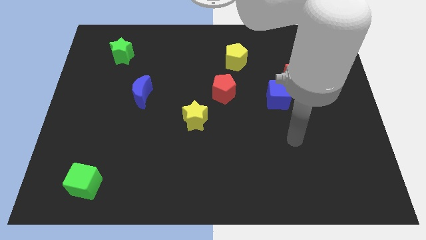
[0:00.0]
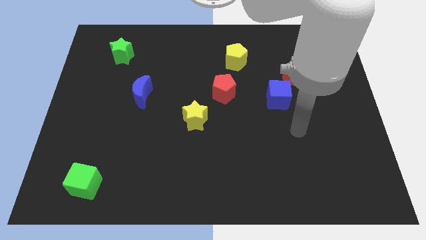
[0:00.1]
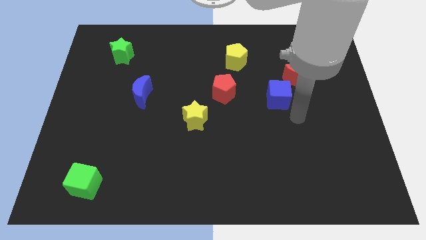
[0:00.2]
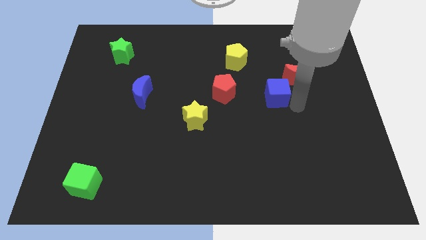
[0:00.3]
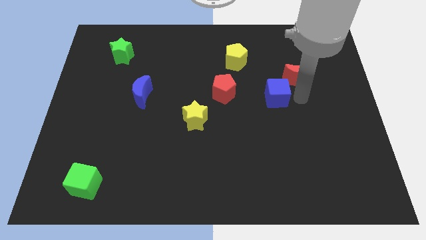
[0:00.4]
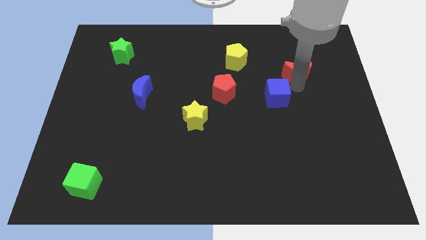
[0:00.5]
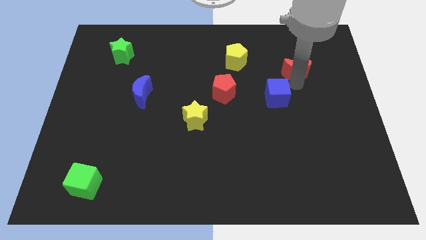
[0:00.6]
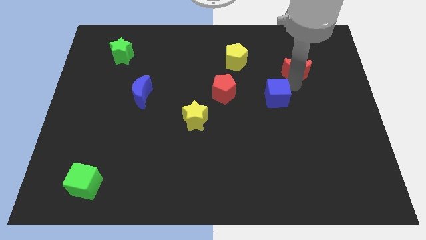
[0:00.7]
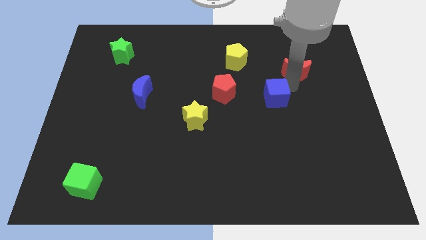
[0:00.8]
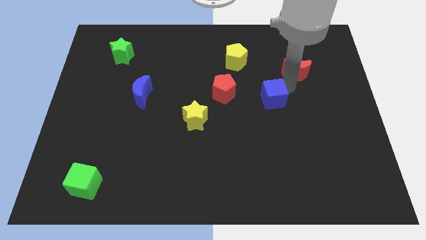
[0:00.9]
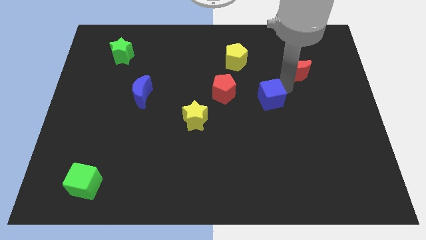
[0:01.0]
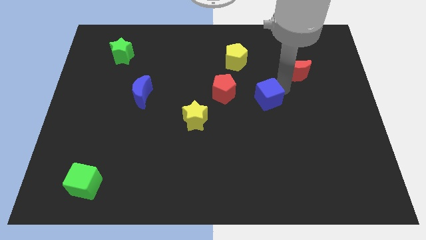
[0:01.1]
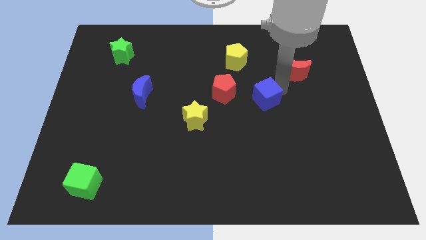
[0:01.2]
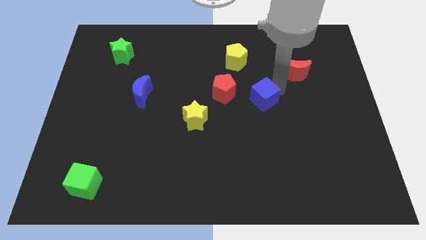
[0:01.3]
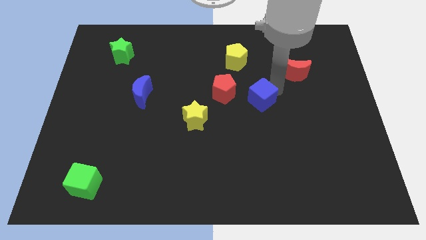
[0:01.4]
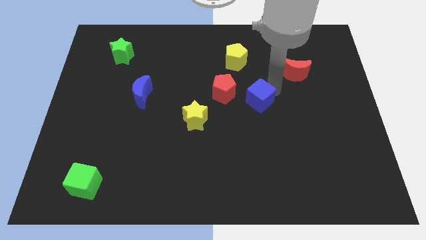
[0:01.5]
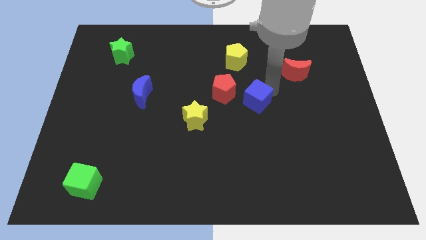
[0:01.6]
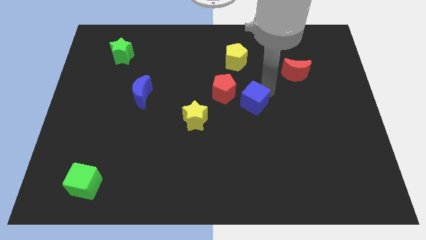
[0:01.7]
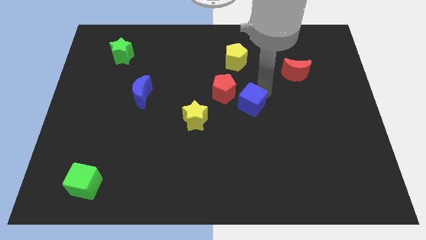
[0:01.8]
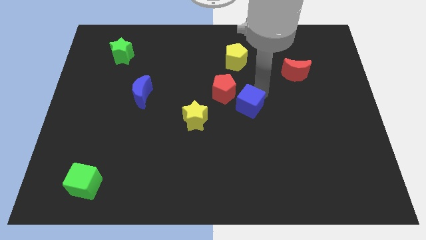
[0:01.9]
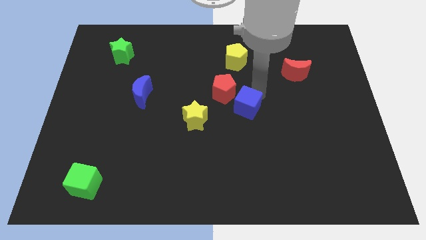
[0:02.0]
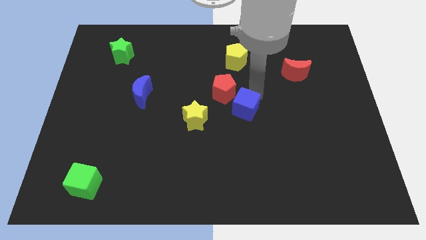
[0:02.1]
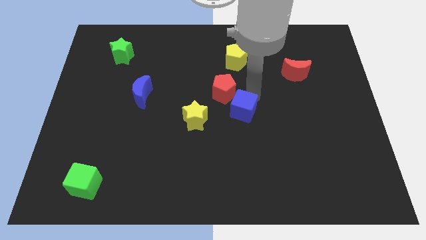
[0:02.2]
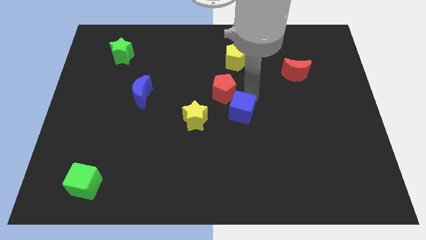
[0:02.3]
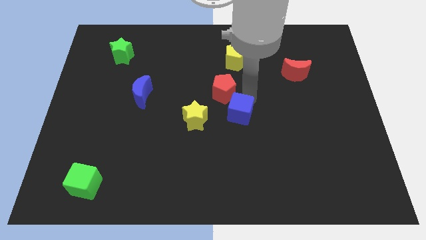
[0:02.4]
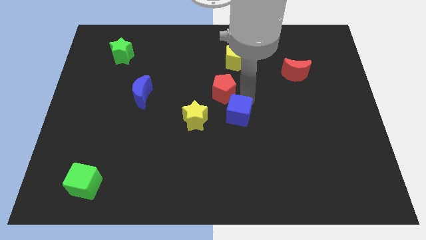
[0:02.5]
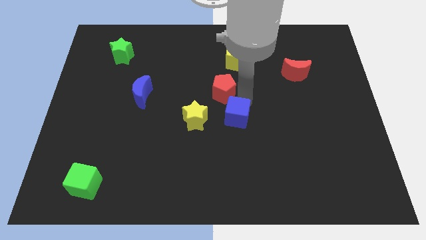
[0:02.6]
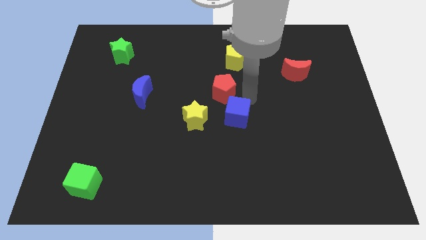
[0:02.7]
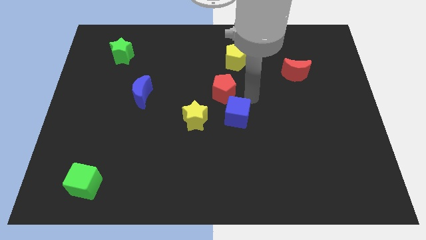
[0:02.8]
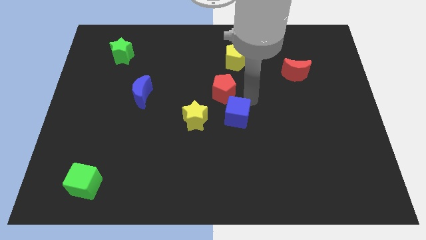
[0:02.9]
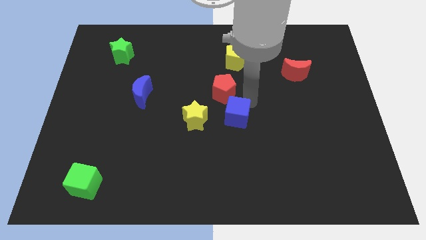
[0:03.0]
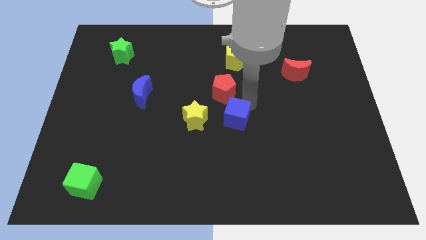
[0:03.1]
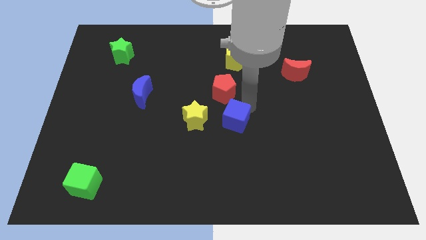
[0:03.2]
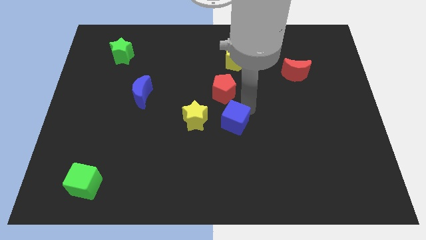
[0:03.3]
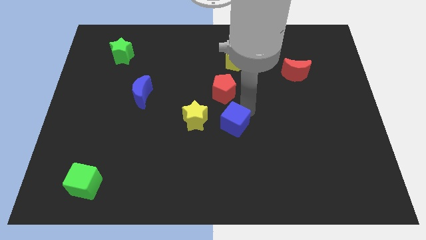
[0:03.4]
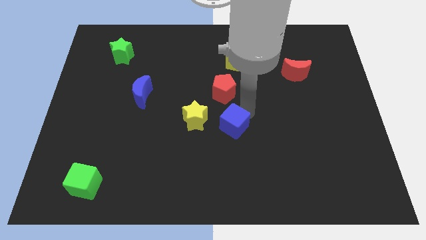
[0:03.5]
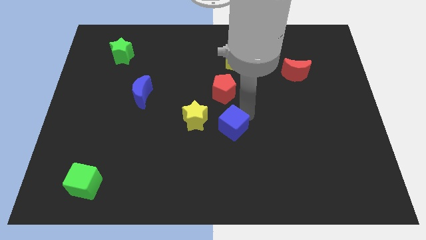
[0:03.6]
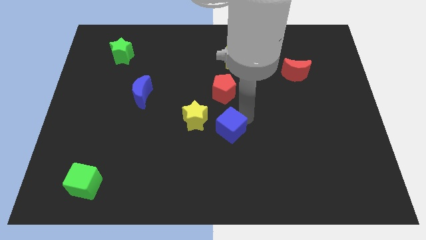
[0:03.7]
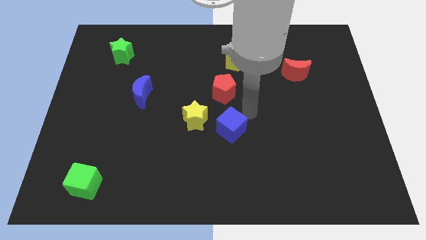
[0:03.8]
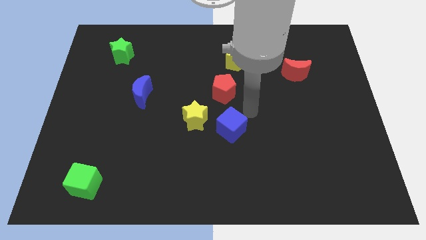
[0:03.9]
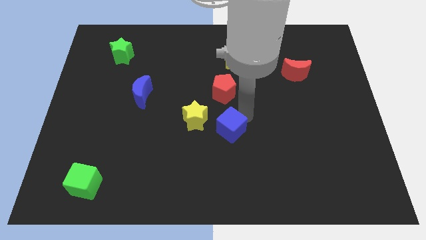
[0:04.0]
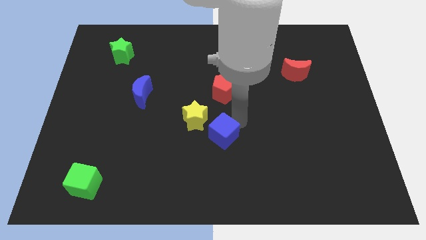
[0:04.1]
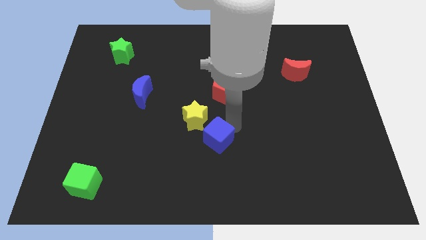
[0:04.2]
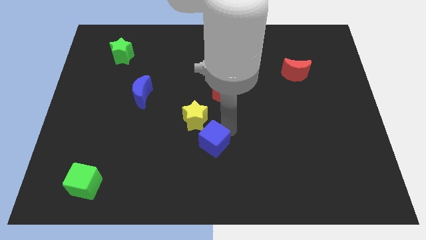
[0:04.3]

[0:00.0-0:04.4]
slide the blue cube to the bottom of the yellow star

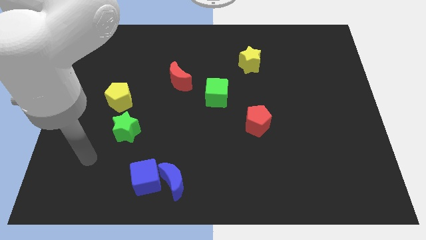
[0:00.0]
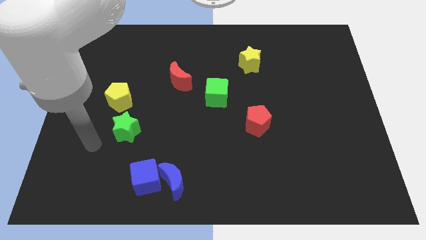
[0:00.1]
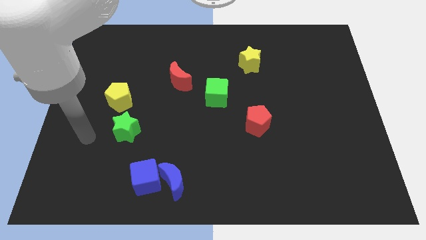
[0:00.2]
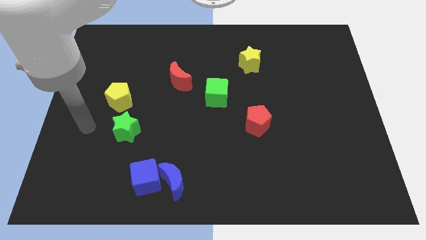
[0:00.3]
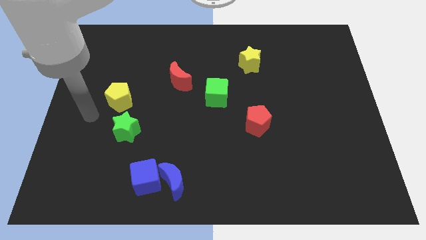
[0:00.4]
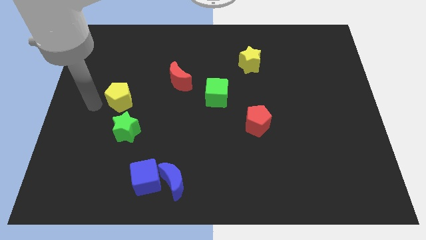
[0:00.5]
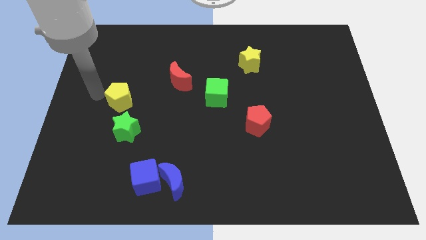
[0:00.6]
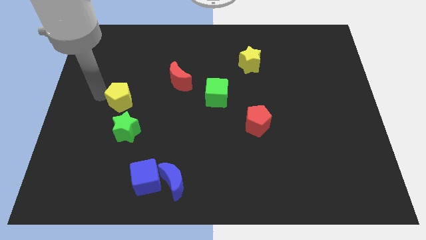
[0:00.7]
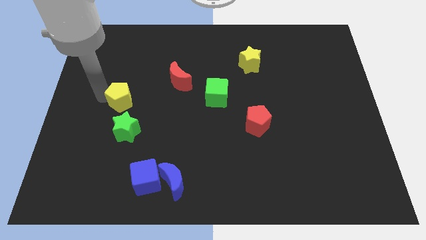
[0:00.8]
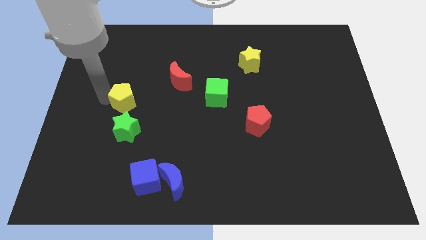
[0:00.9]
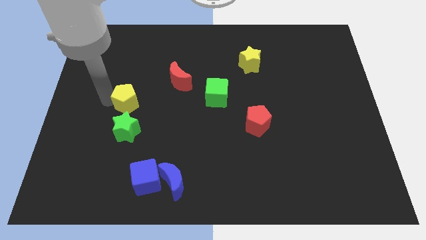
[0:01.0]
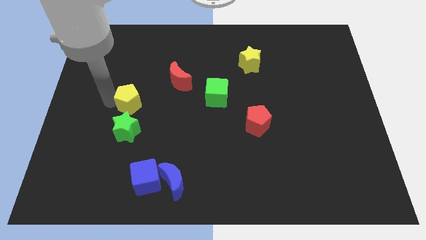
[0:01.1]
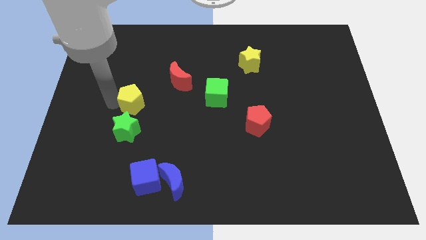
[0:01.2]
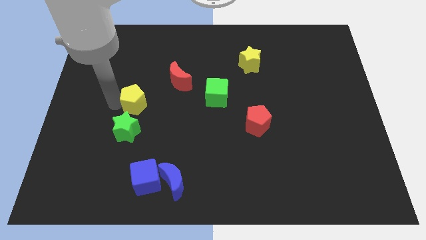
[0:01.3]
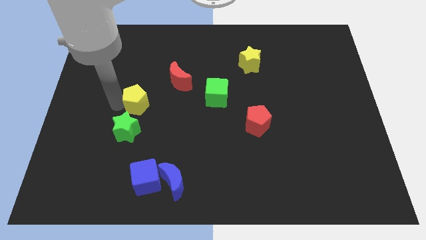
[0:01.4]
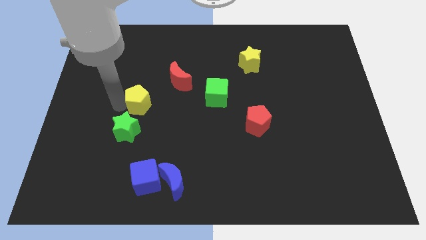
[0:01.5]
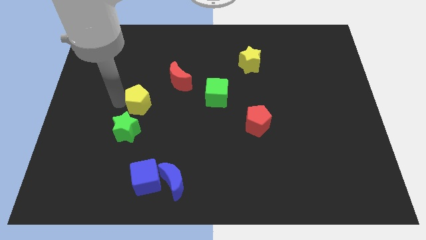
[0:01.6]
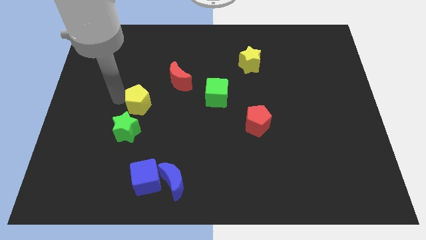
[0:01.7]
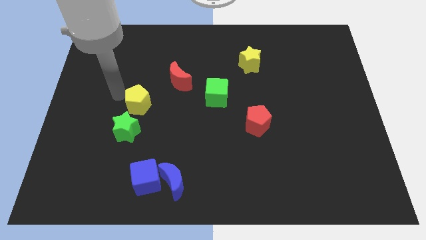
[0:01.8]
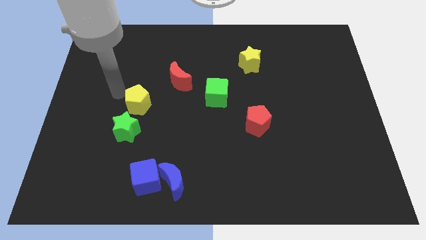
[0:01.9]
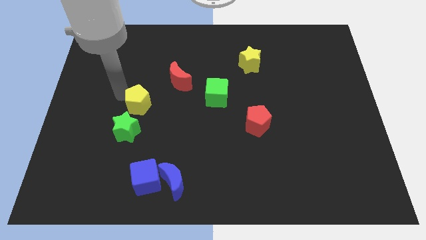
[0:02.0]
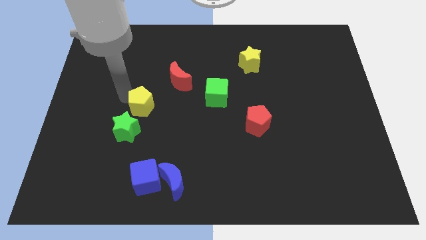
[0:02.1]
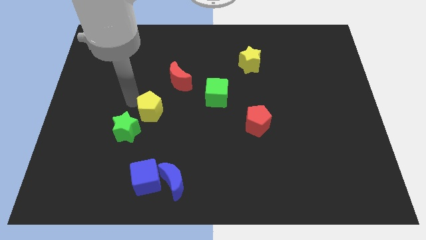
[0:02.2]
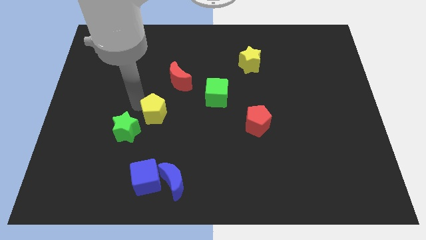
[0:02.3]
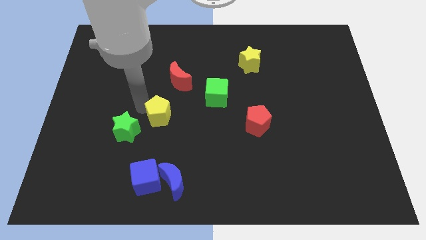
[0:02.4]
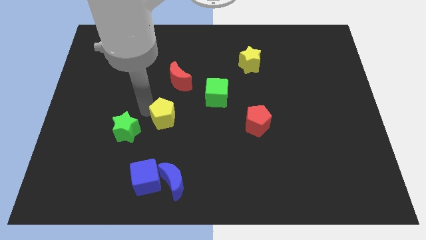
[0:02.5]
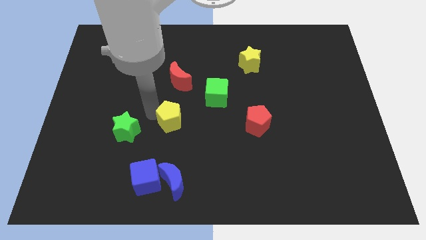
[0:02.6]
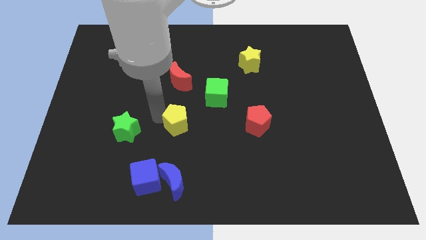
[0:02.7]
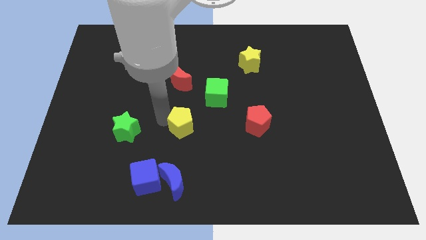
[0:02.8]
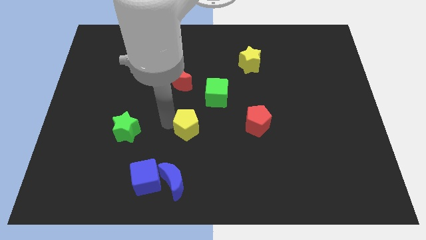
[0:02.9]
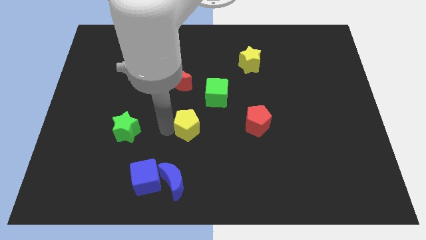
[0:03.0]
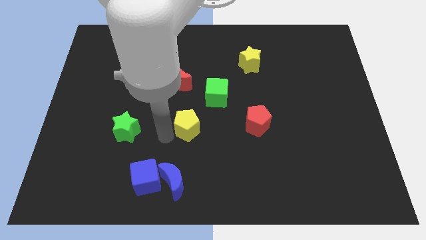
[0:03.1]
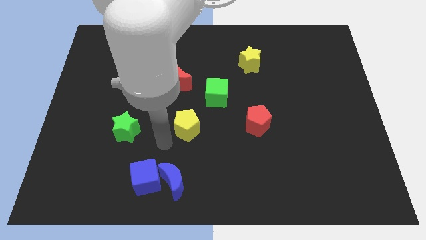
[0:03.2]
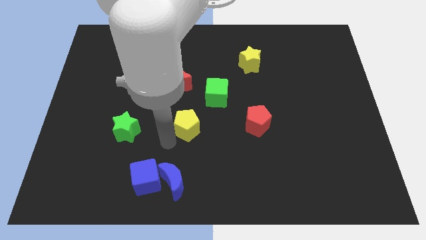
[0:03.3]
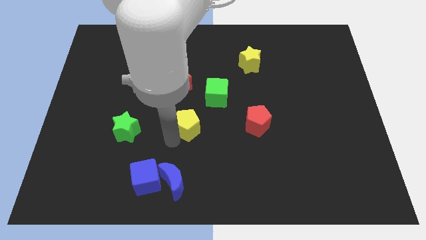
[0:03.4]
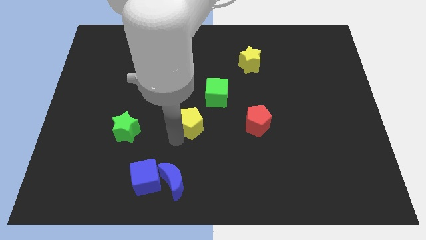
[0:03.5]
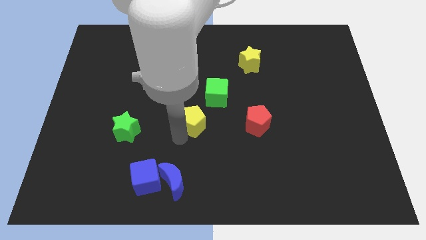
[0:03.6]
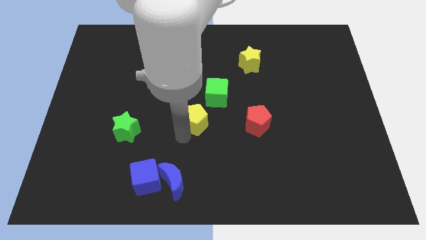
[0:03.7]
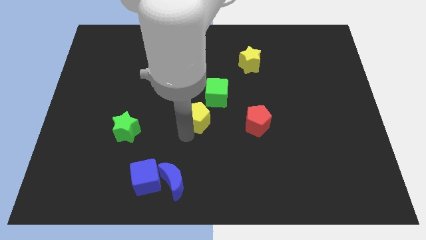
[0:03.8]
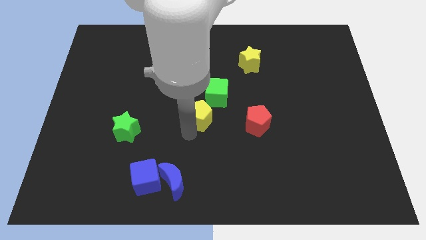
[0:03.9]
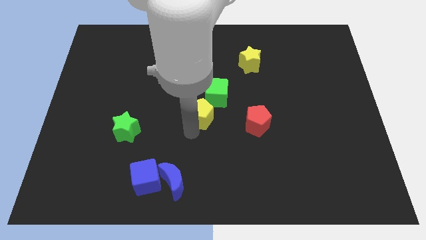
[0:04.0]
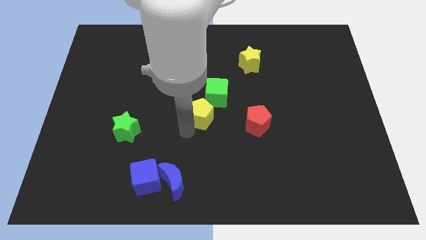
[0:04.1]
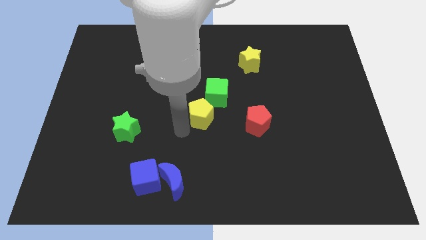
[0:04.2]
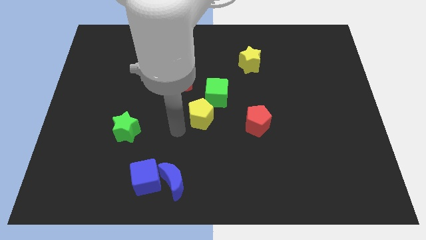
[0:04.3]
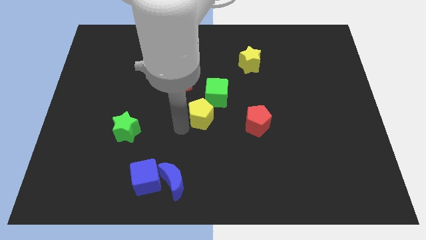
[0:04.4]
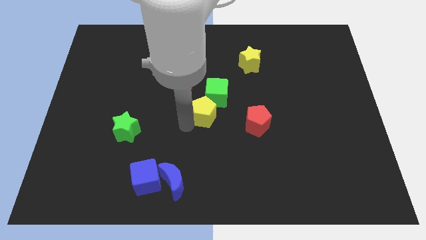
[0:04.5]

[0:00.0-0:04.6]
put the yellow pentagon diagonally down and to the right of the red moon
